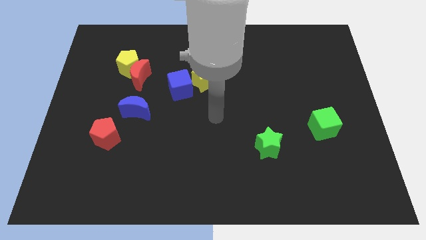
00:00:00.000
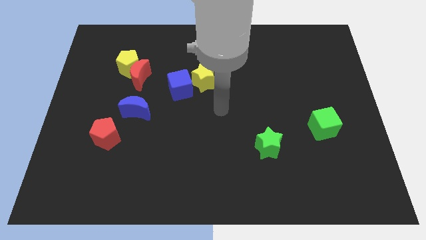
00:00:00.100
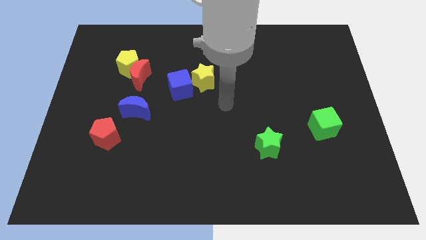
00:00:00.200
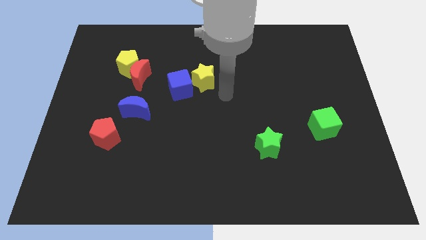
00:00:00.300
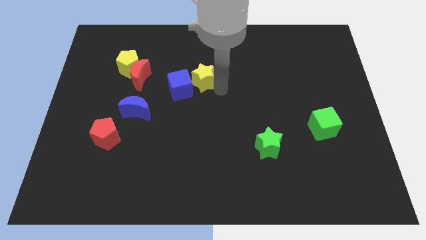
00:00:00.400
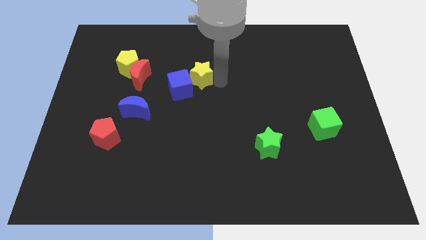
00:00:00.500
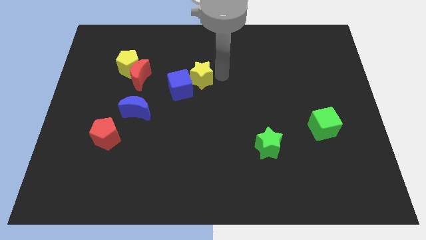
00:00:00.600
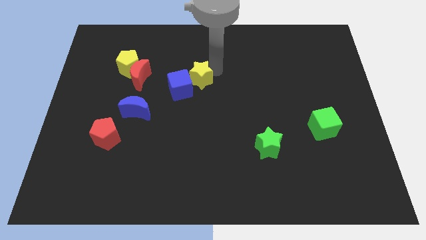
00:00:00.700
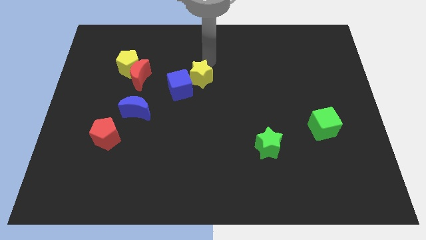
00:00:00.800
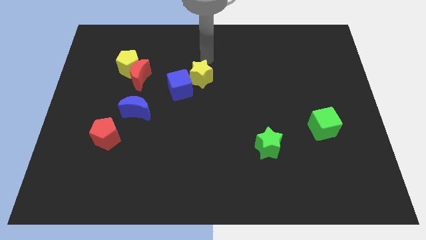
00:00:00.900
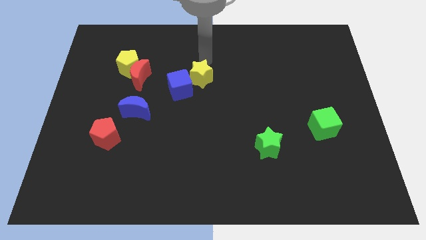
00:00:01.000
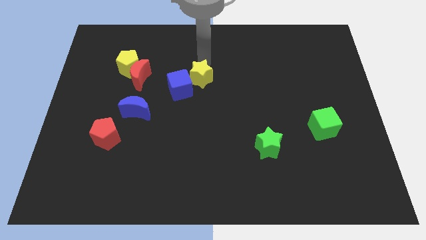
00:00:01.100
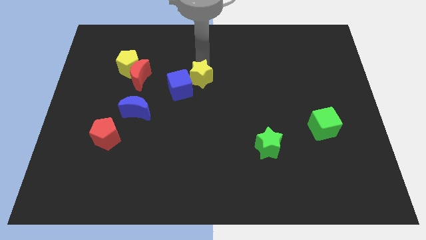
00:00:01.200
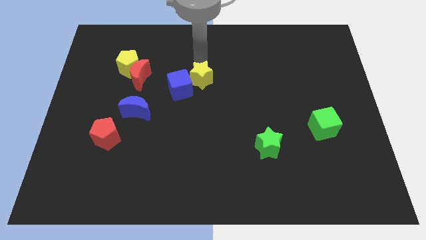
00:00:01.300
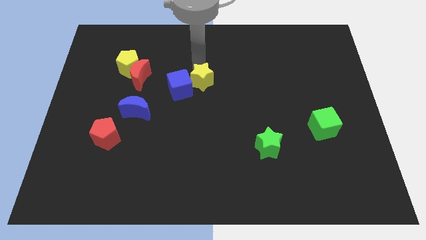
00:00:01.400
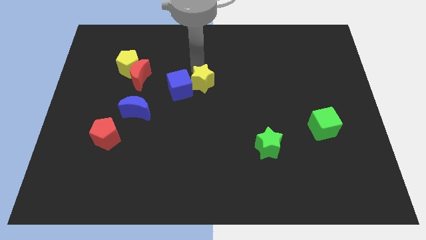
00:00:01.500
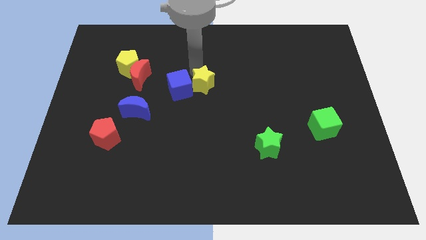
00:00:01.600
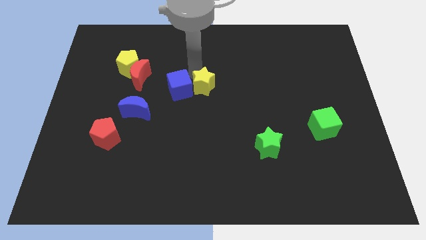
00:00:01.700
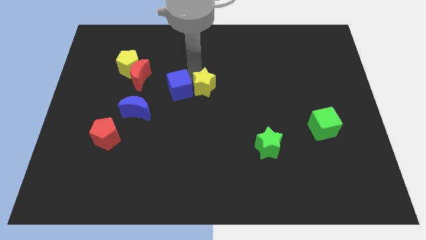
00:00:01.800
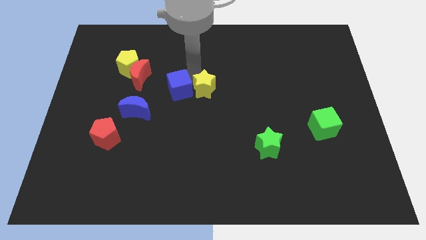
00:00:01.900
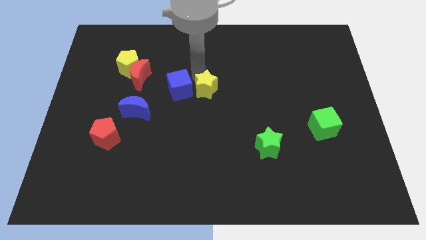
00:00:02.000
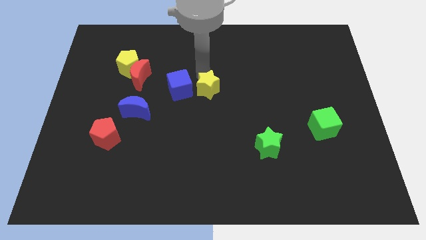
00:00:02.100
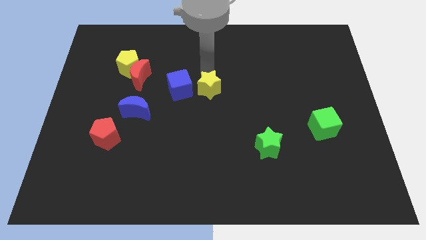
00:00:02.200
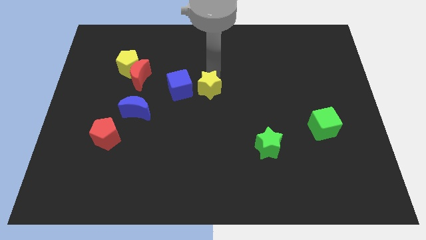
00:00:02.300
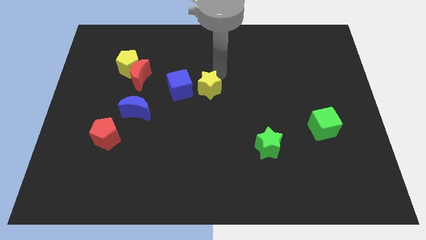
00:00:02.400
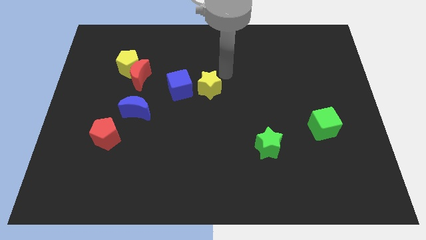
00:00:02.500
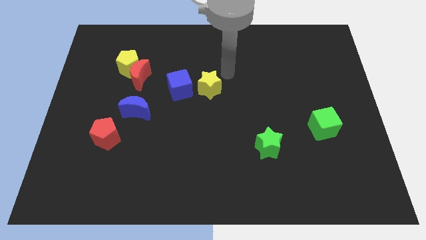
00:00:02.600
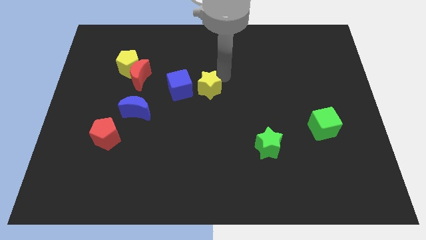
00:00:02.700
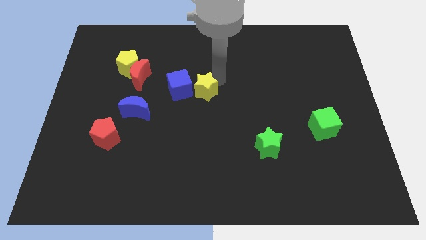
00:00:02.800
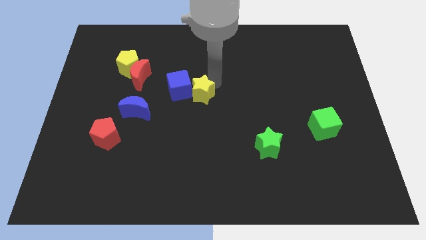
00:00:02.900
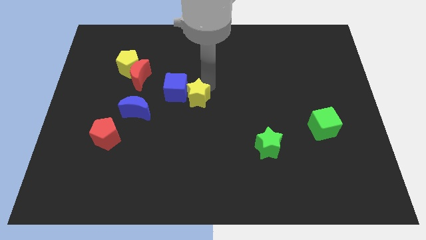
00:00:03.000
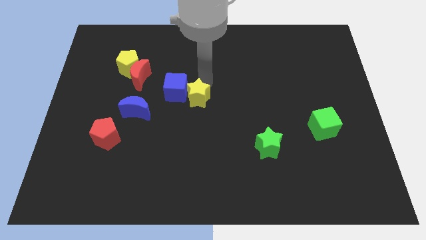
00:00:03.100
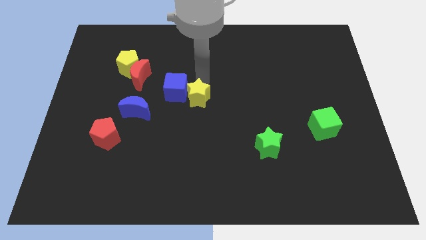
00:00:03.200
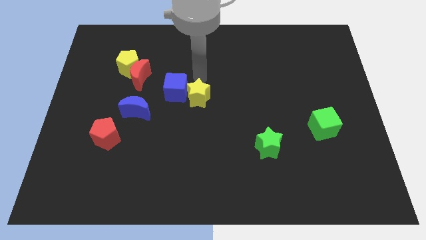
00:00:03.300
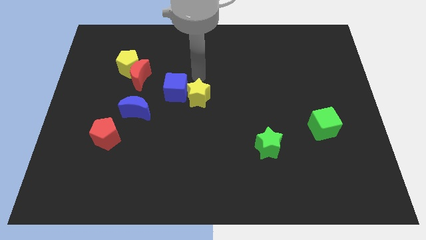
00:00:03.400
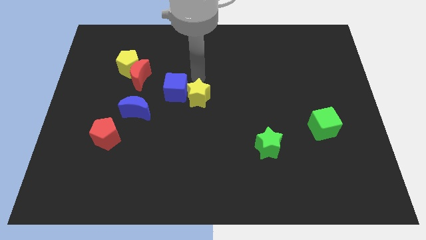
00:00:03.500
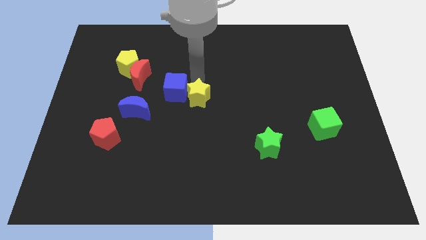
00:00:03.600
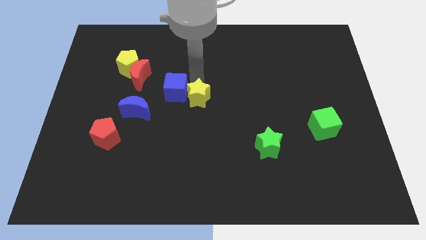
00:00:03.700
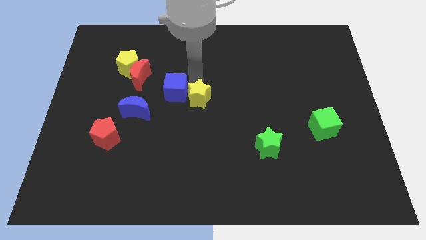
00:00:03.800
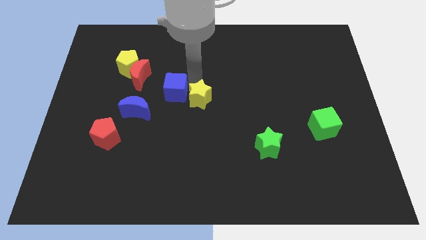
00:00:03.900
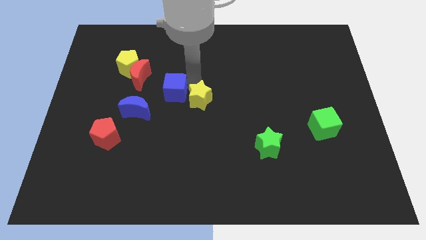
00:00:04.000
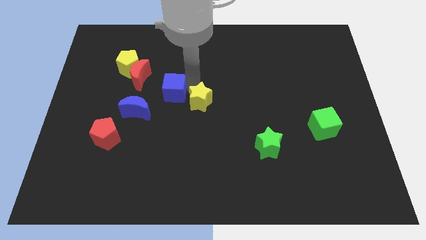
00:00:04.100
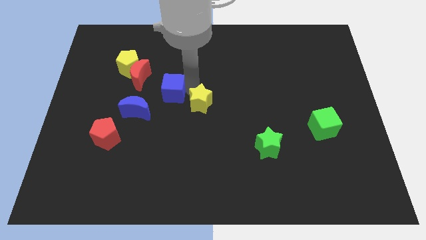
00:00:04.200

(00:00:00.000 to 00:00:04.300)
slightly push the yellow star down

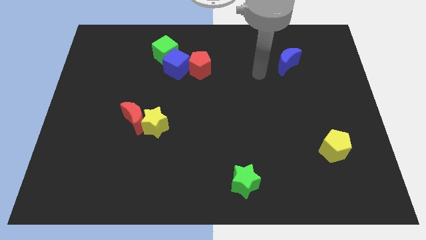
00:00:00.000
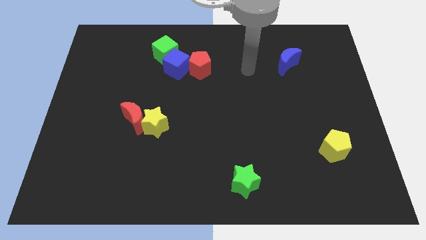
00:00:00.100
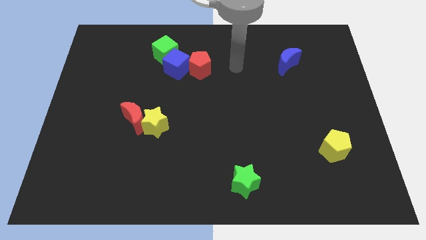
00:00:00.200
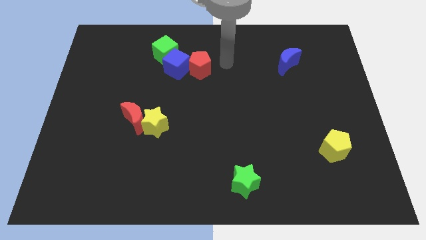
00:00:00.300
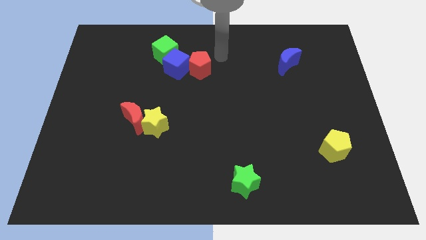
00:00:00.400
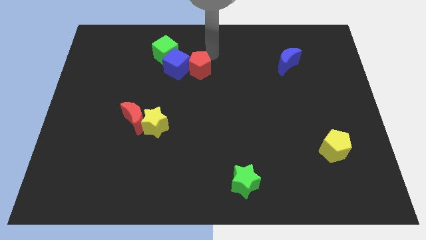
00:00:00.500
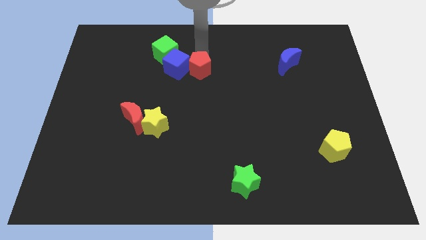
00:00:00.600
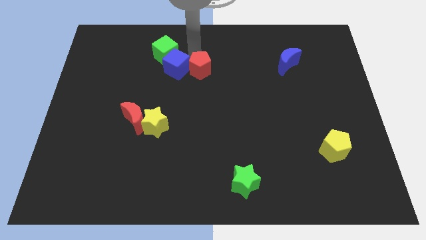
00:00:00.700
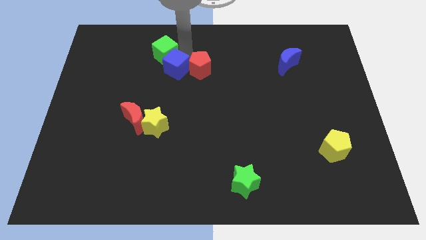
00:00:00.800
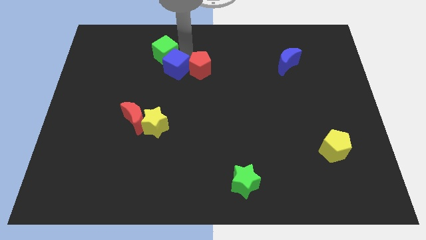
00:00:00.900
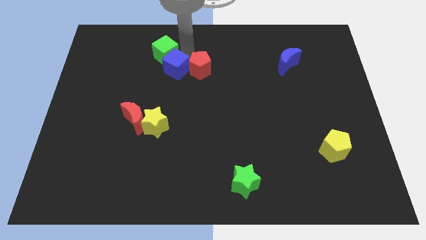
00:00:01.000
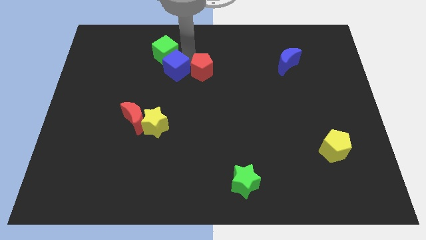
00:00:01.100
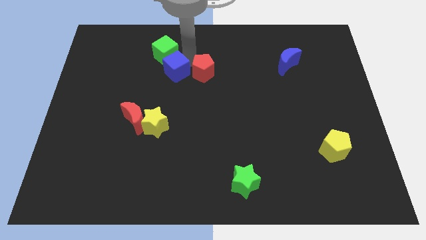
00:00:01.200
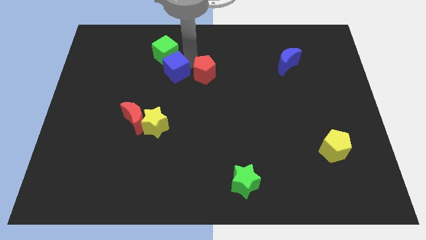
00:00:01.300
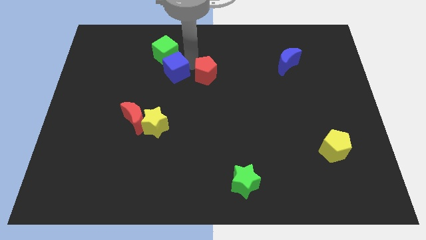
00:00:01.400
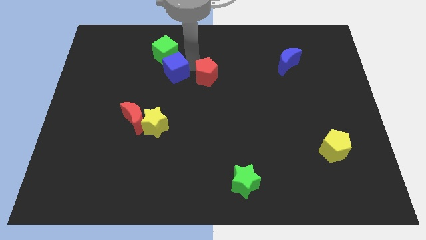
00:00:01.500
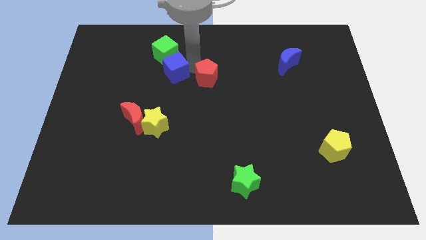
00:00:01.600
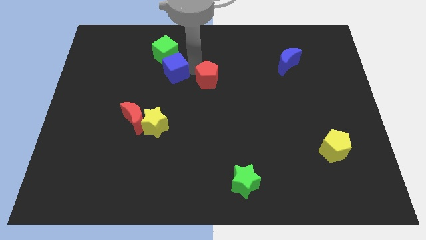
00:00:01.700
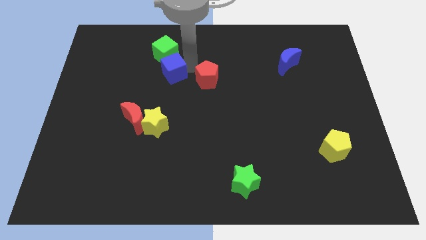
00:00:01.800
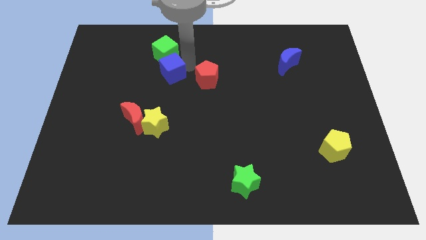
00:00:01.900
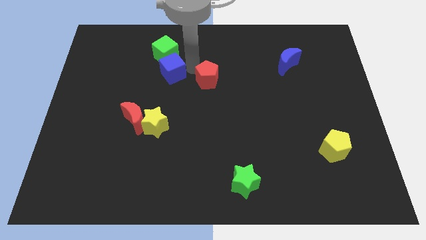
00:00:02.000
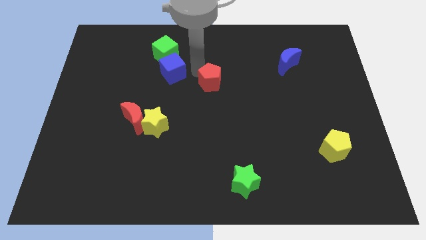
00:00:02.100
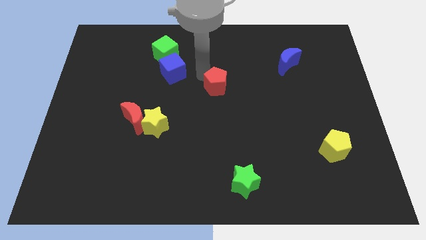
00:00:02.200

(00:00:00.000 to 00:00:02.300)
slightly move the red pentagon downwards and right diagonally

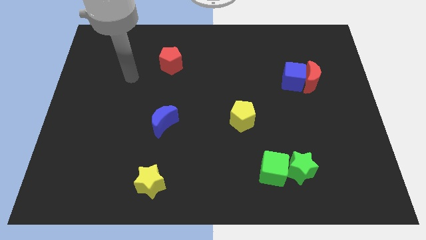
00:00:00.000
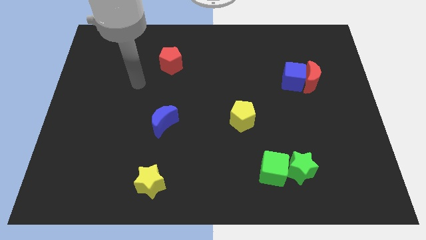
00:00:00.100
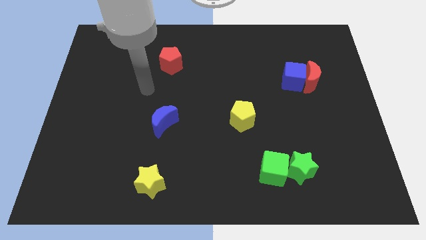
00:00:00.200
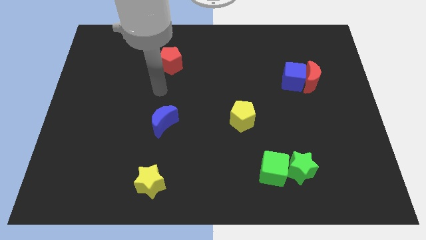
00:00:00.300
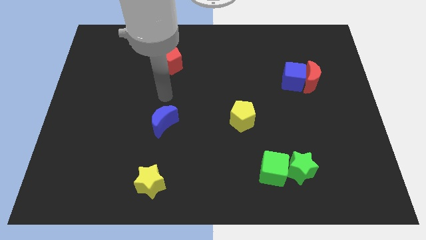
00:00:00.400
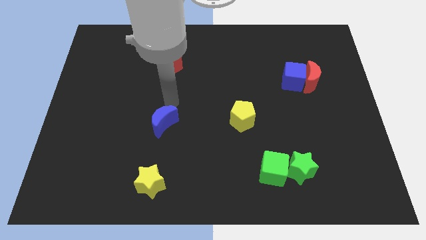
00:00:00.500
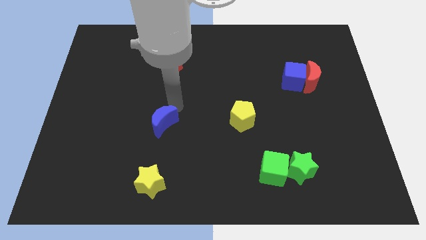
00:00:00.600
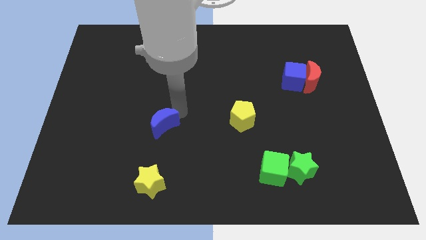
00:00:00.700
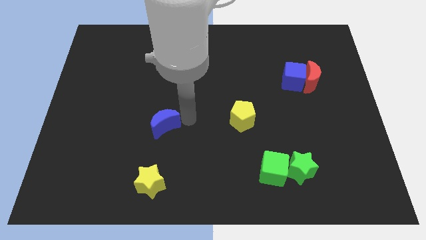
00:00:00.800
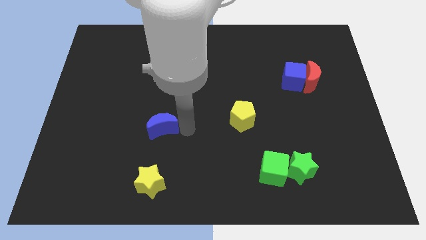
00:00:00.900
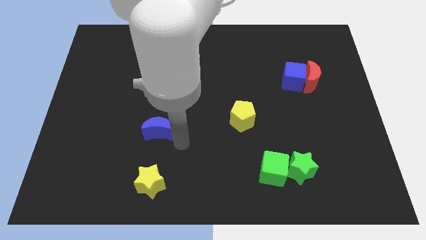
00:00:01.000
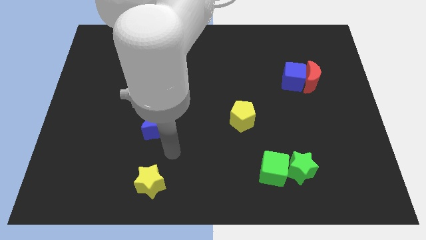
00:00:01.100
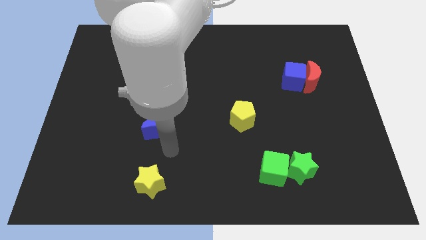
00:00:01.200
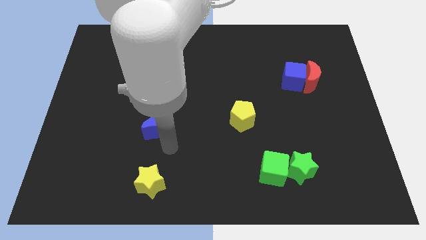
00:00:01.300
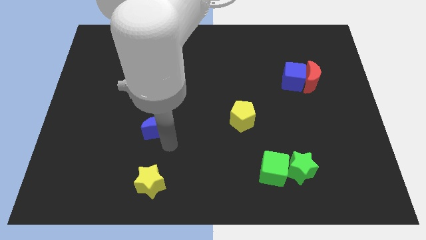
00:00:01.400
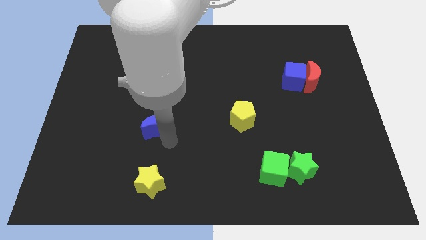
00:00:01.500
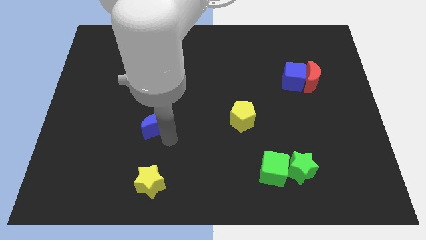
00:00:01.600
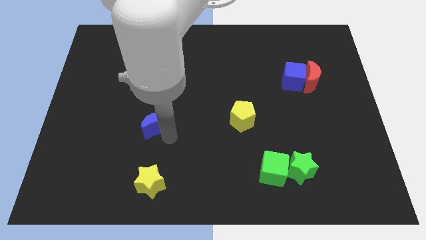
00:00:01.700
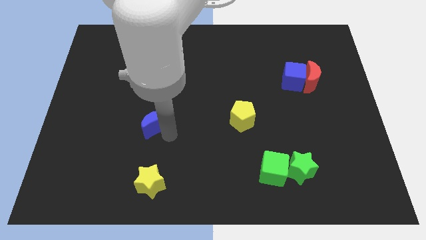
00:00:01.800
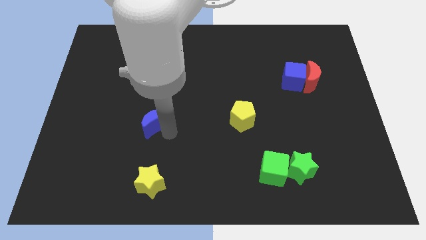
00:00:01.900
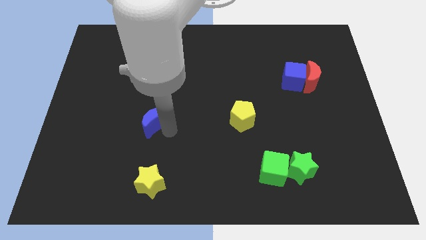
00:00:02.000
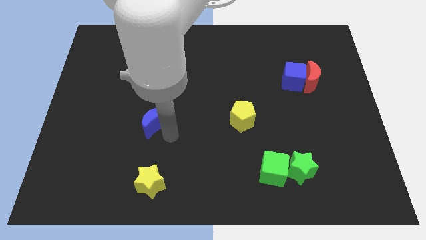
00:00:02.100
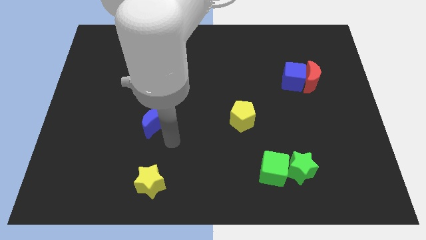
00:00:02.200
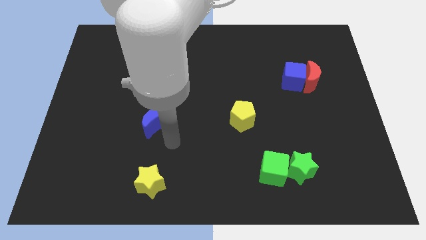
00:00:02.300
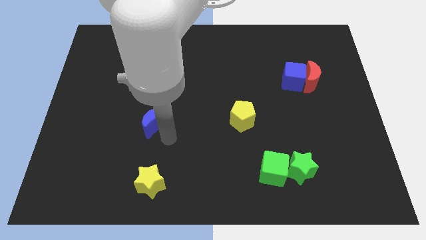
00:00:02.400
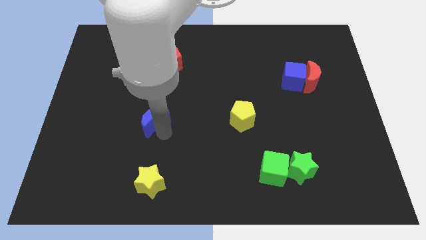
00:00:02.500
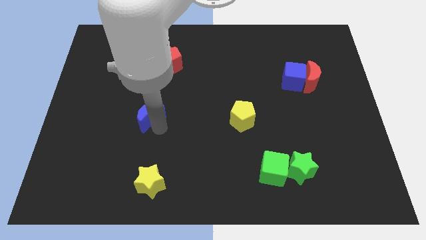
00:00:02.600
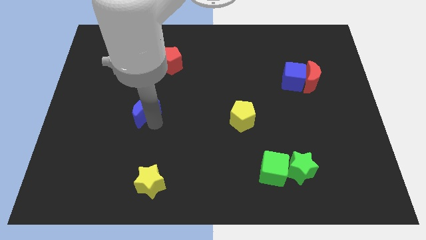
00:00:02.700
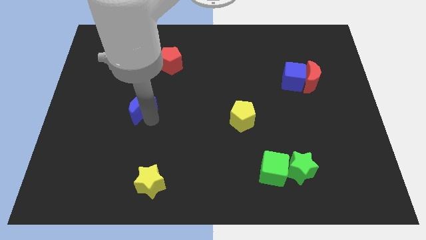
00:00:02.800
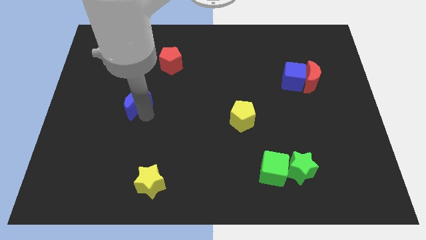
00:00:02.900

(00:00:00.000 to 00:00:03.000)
push the blue moon a bit upwards and to the left
